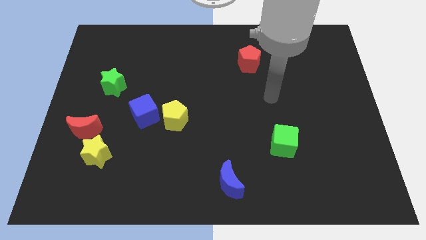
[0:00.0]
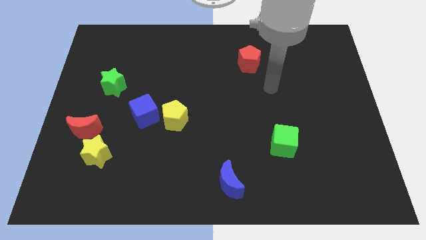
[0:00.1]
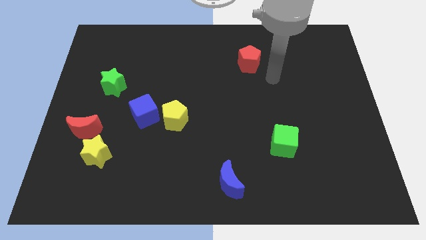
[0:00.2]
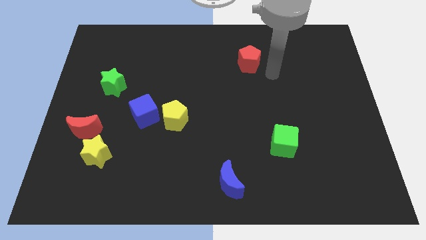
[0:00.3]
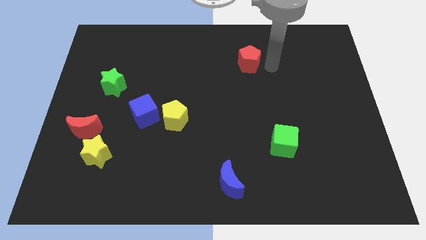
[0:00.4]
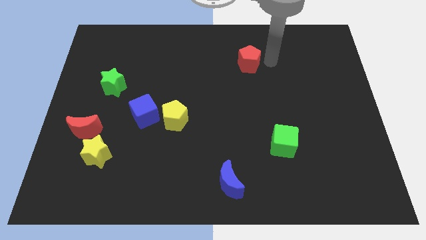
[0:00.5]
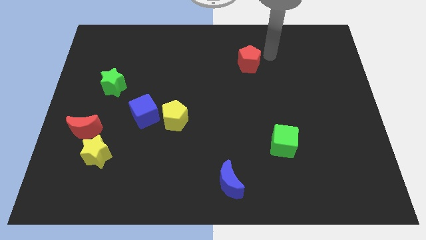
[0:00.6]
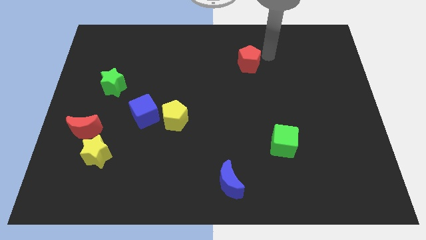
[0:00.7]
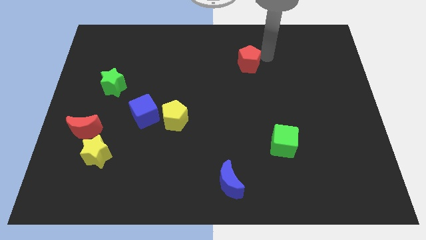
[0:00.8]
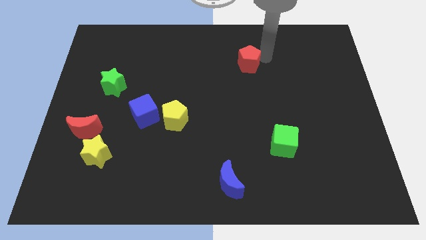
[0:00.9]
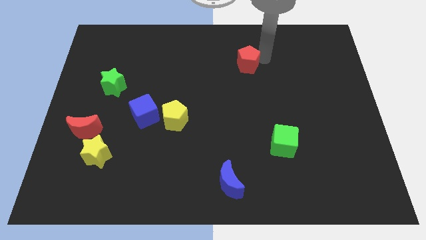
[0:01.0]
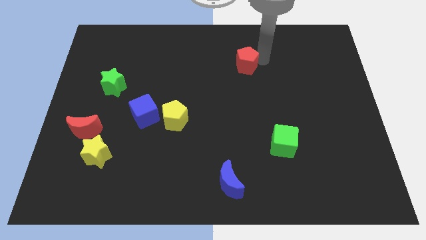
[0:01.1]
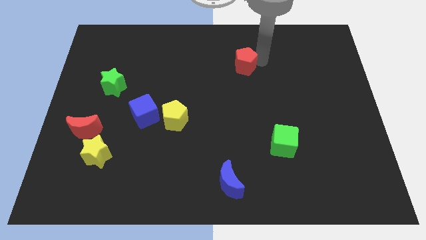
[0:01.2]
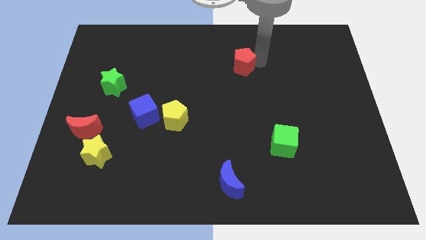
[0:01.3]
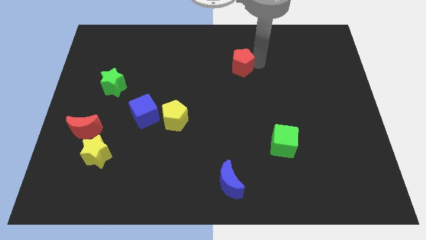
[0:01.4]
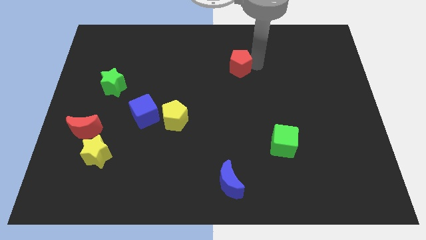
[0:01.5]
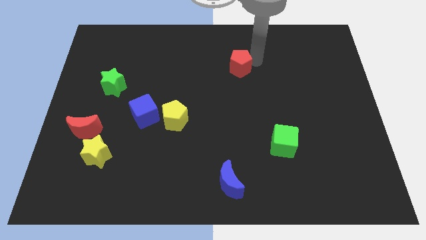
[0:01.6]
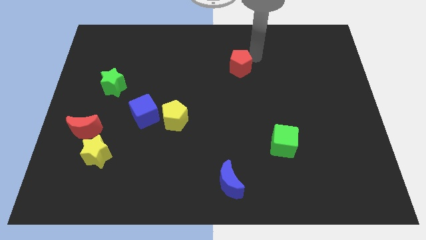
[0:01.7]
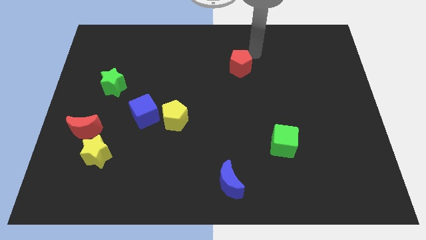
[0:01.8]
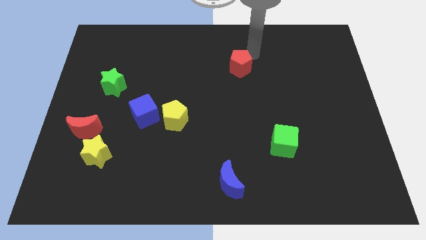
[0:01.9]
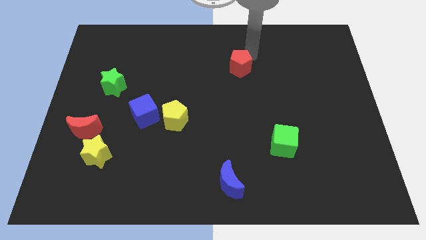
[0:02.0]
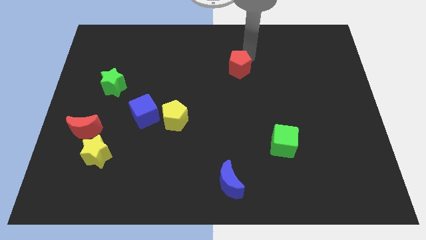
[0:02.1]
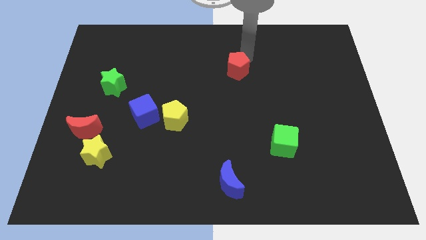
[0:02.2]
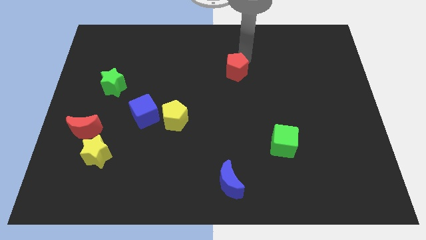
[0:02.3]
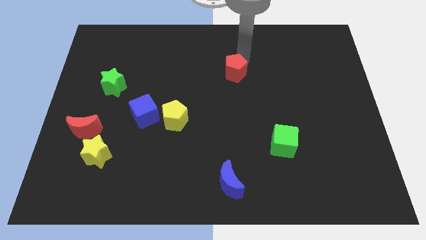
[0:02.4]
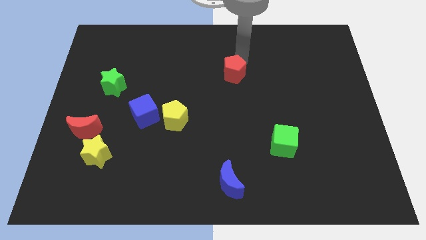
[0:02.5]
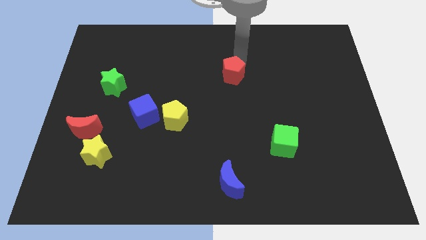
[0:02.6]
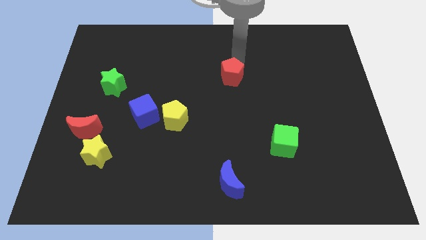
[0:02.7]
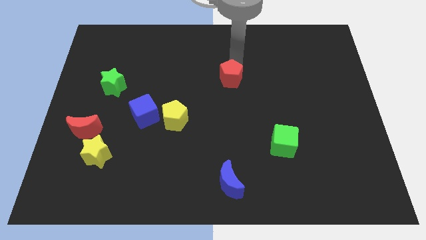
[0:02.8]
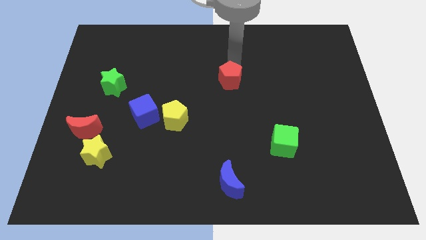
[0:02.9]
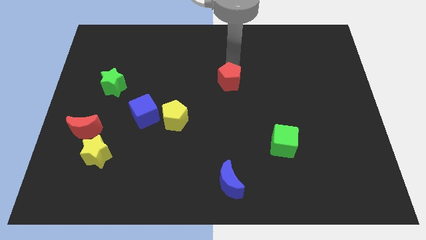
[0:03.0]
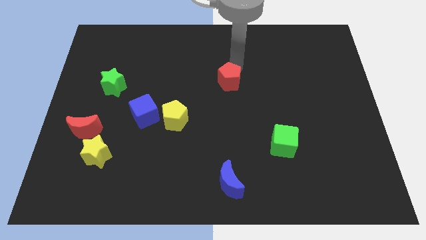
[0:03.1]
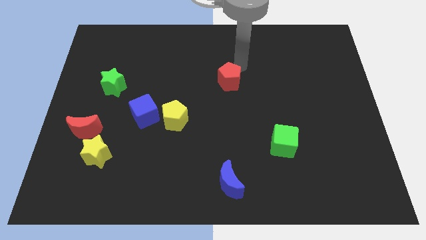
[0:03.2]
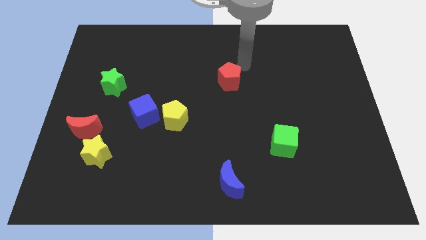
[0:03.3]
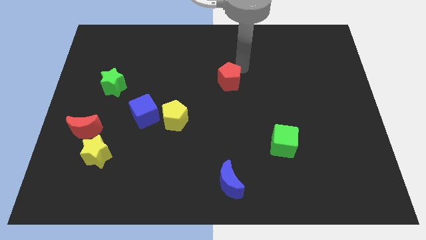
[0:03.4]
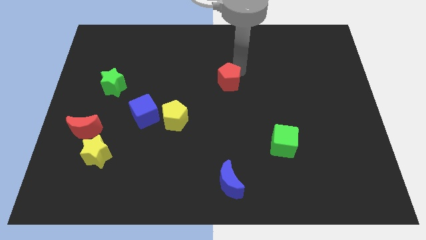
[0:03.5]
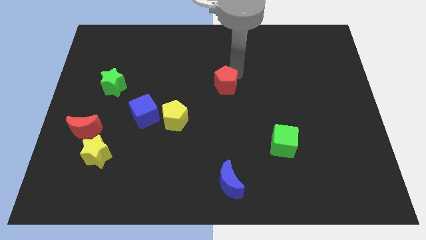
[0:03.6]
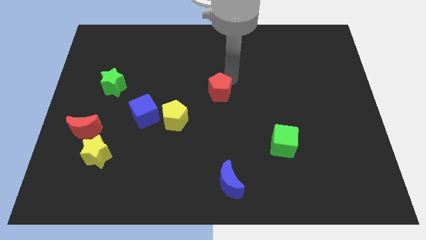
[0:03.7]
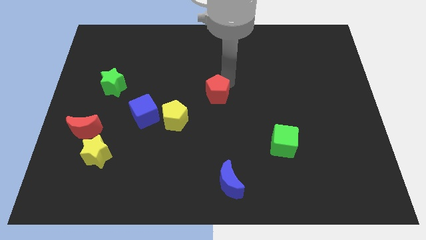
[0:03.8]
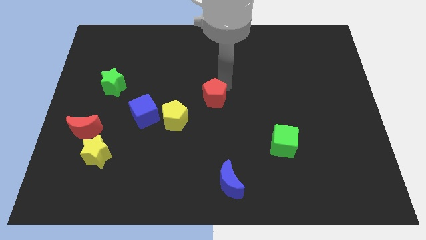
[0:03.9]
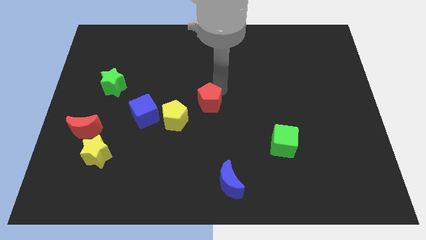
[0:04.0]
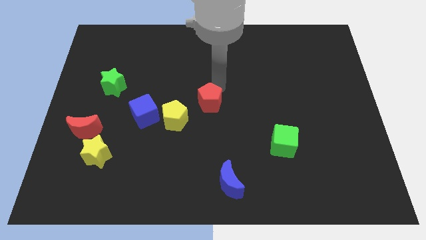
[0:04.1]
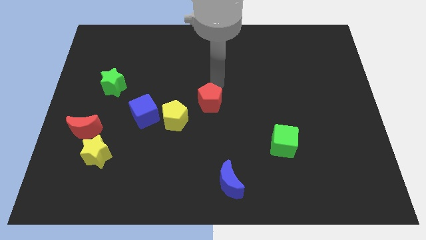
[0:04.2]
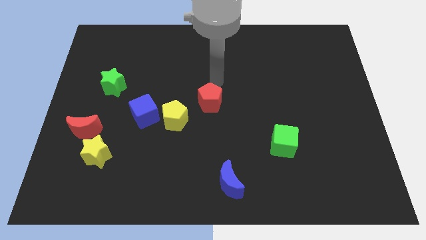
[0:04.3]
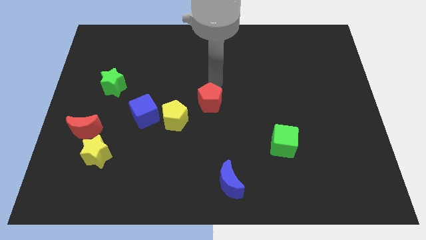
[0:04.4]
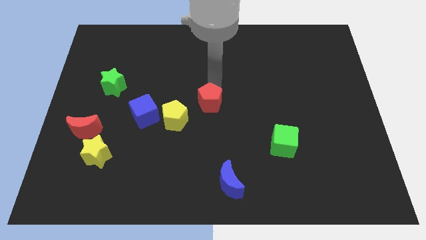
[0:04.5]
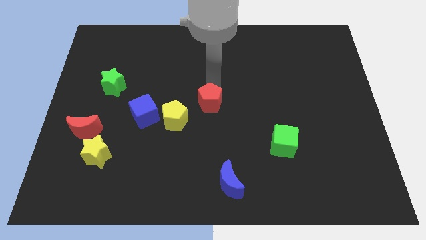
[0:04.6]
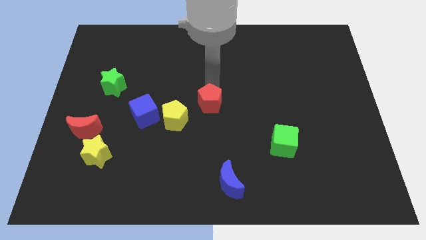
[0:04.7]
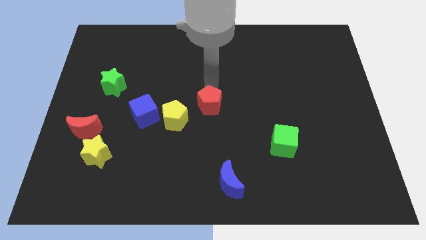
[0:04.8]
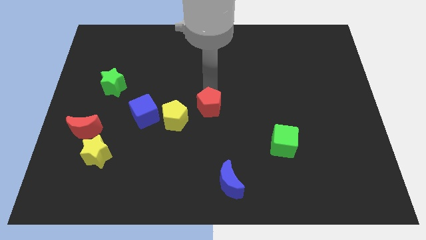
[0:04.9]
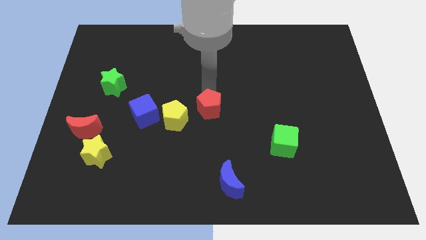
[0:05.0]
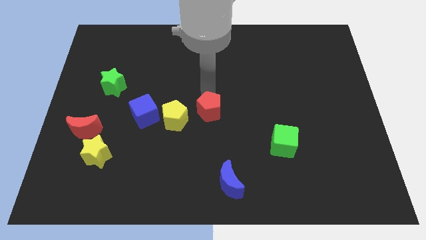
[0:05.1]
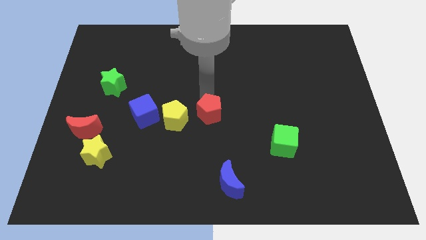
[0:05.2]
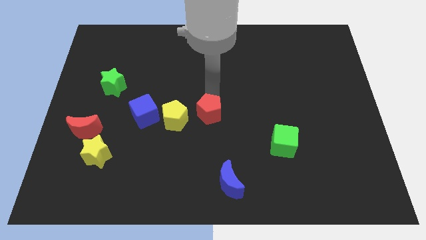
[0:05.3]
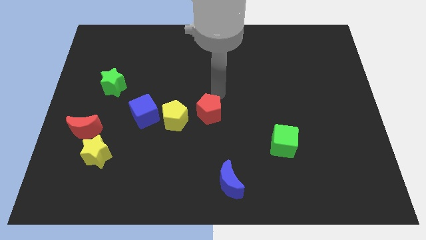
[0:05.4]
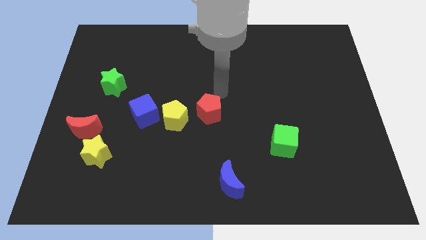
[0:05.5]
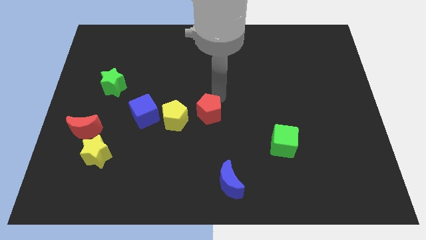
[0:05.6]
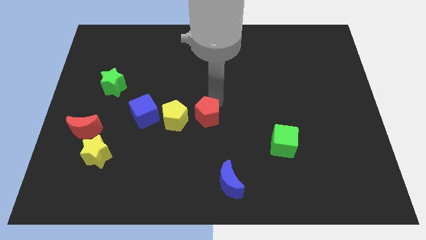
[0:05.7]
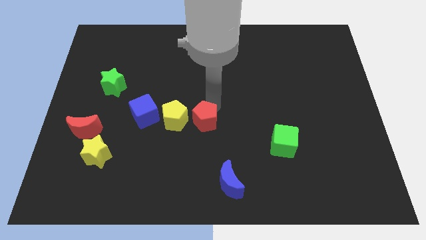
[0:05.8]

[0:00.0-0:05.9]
move the red pentagon diagonally down and left

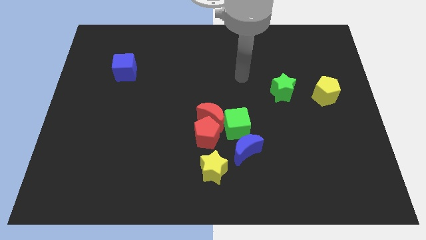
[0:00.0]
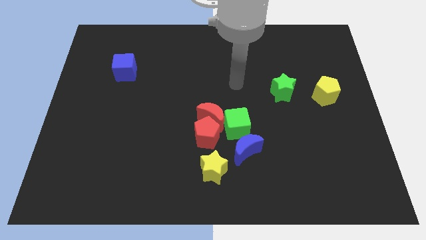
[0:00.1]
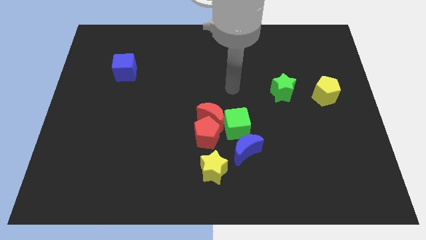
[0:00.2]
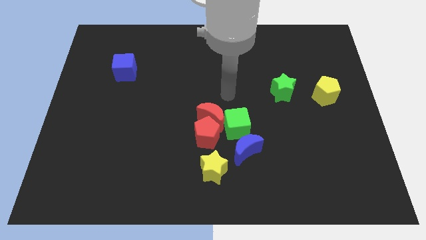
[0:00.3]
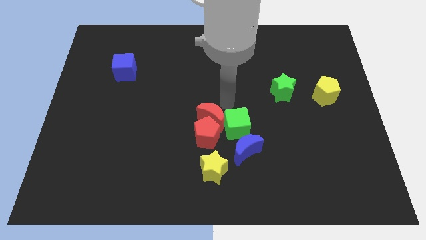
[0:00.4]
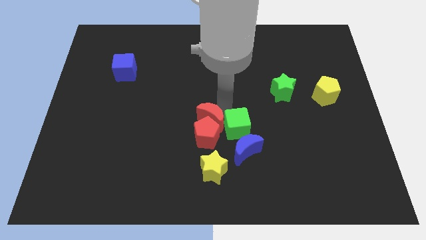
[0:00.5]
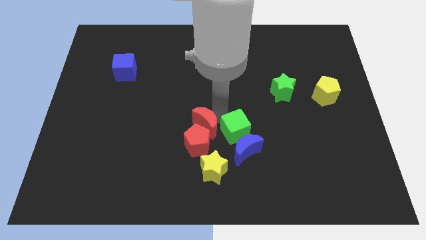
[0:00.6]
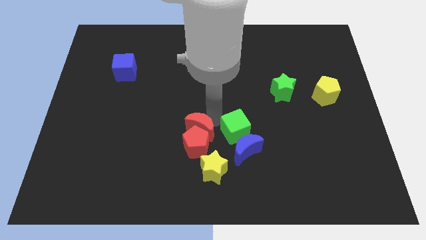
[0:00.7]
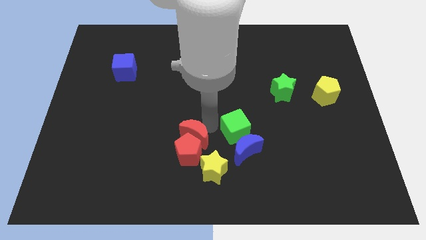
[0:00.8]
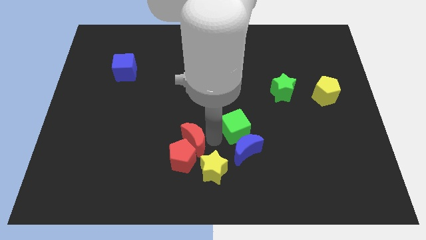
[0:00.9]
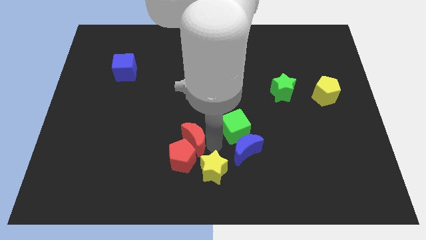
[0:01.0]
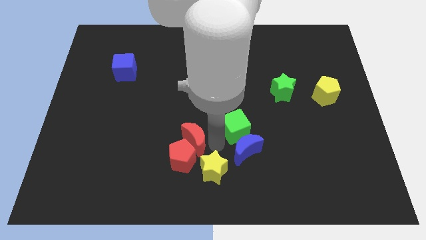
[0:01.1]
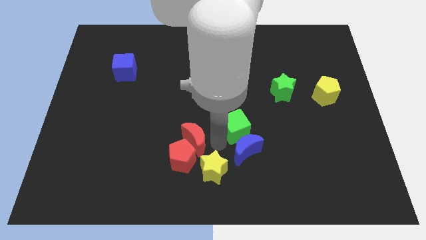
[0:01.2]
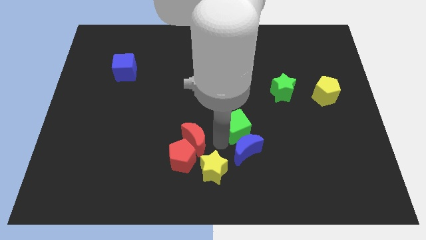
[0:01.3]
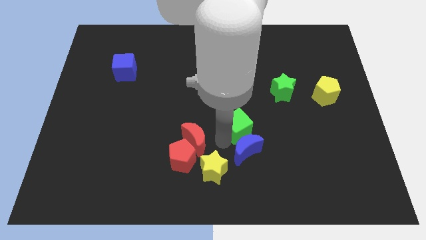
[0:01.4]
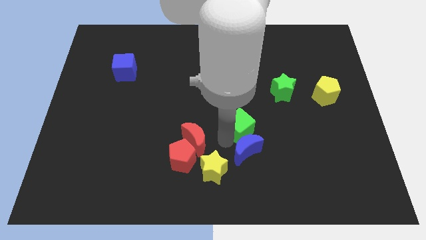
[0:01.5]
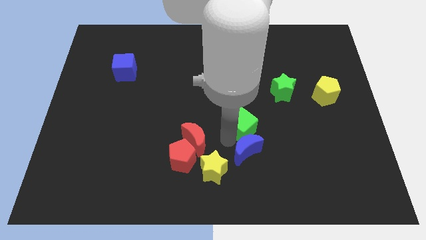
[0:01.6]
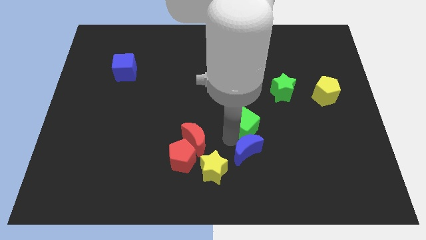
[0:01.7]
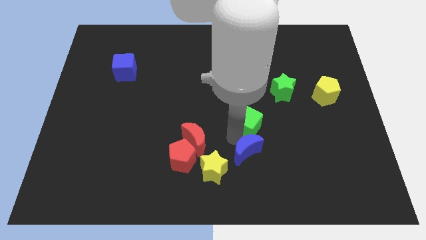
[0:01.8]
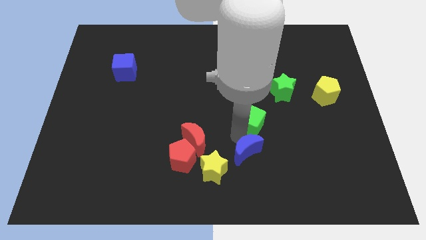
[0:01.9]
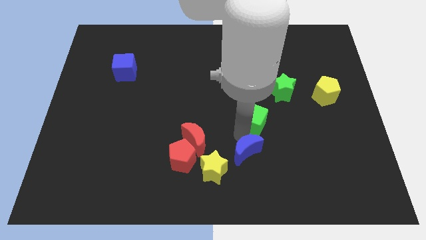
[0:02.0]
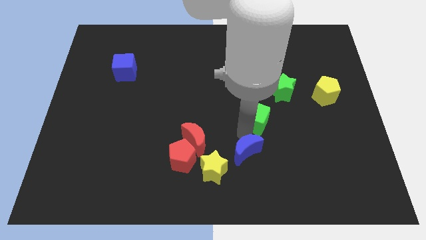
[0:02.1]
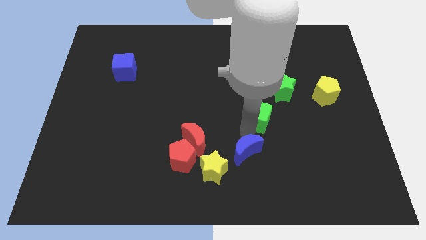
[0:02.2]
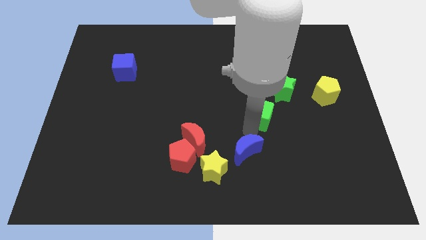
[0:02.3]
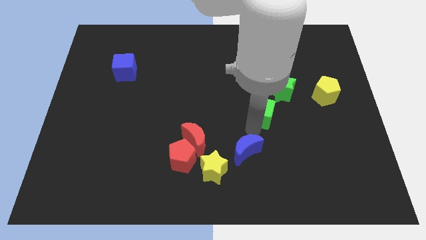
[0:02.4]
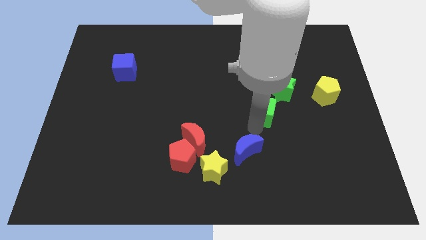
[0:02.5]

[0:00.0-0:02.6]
slightly slide the green cube upwards and to the right
